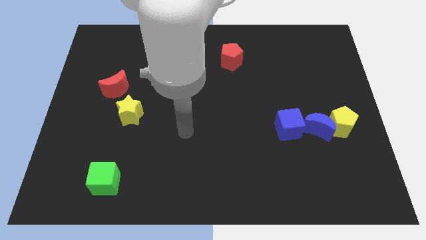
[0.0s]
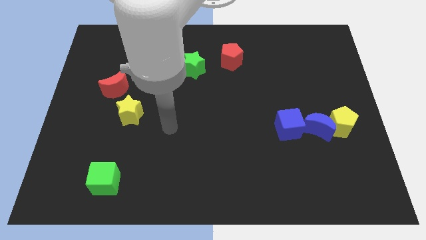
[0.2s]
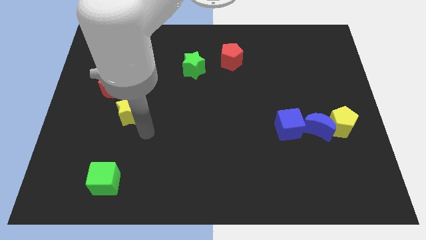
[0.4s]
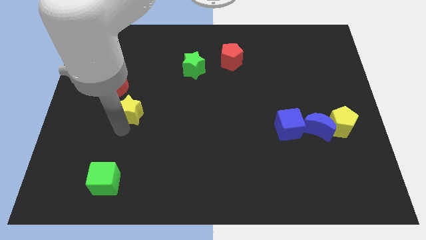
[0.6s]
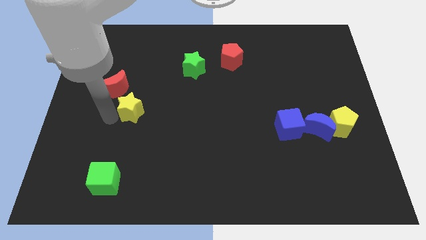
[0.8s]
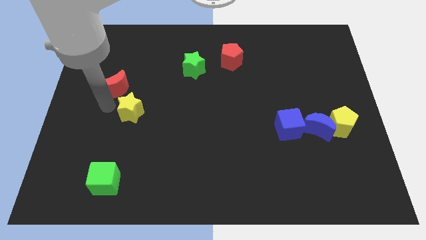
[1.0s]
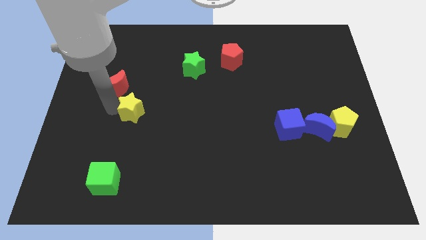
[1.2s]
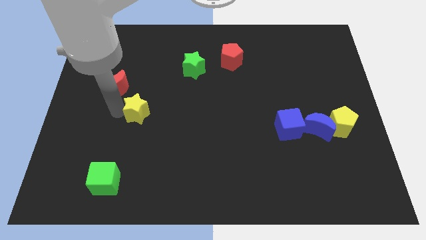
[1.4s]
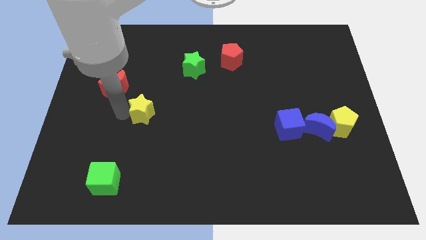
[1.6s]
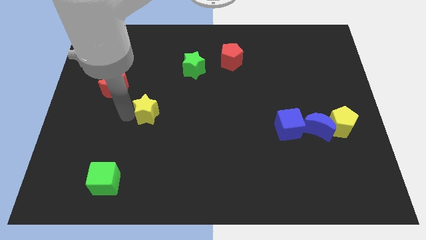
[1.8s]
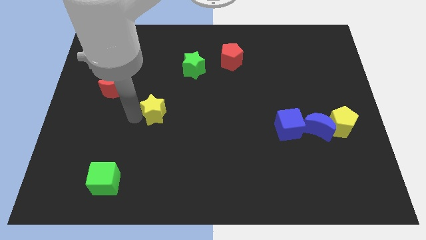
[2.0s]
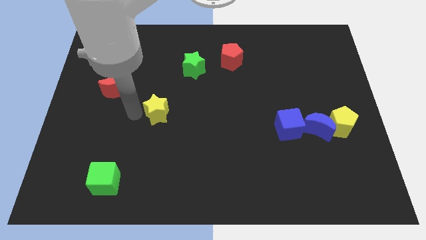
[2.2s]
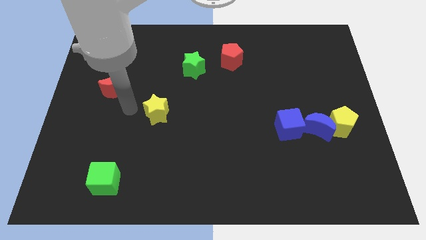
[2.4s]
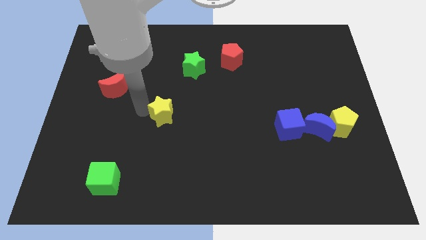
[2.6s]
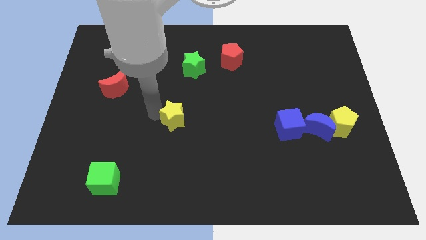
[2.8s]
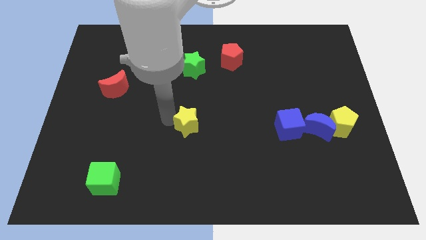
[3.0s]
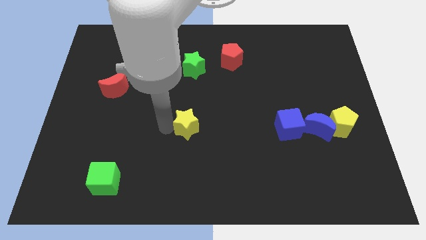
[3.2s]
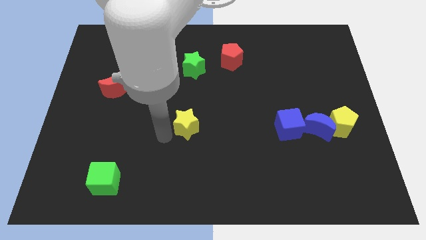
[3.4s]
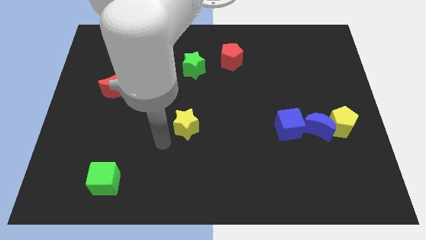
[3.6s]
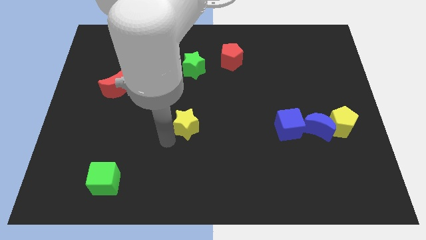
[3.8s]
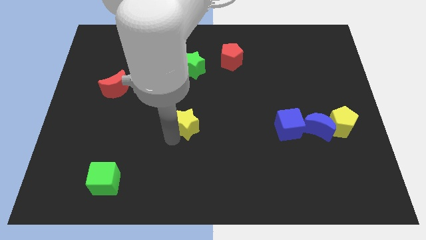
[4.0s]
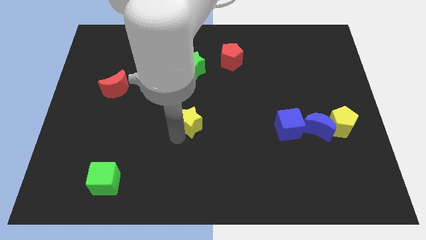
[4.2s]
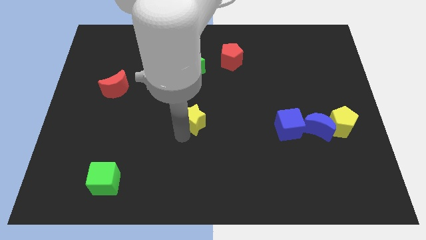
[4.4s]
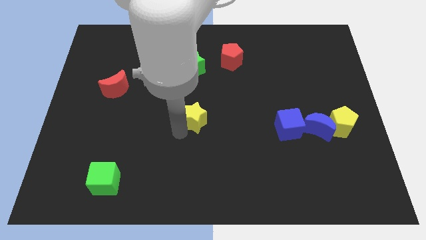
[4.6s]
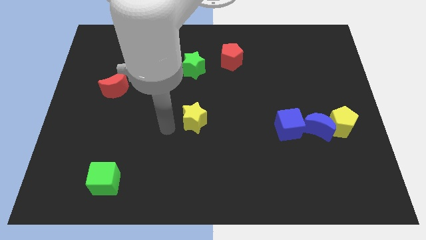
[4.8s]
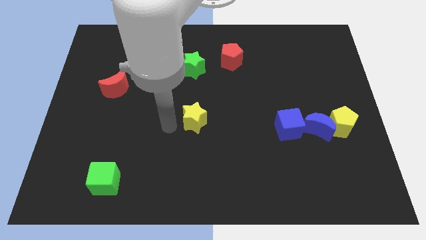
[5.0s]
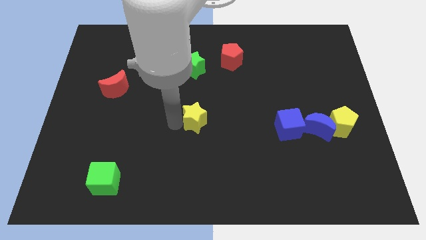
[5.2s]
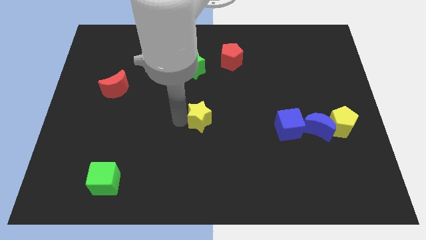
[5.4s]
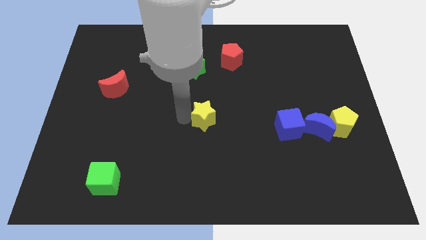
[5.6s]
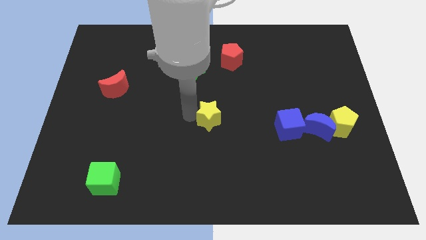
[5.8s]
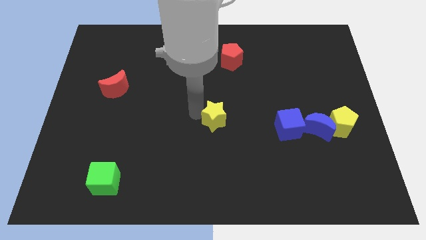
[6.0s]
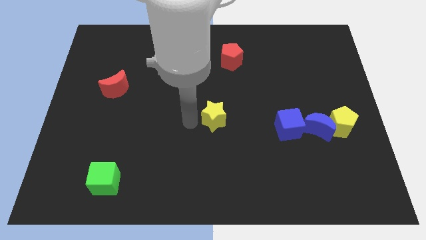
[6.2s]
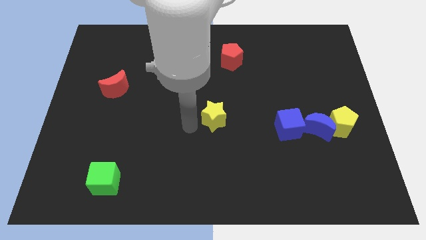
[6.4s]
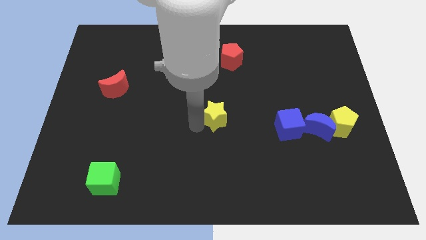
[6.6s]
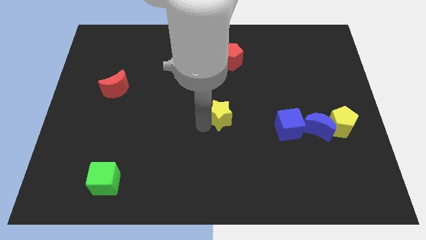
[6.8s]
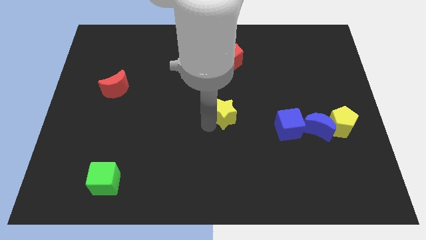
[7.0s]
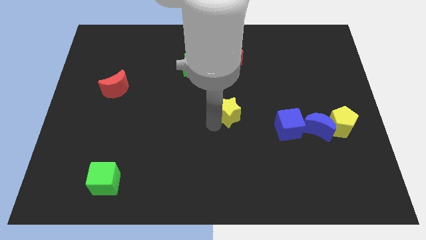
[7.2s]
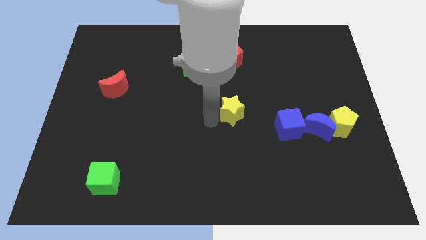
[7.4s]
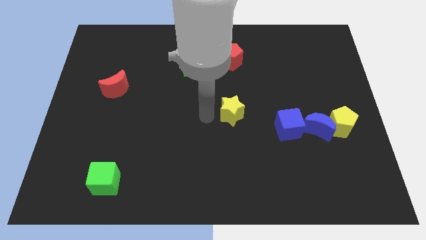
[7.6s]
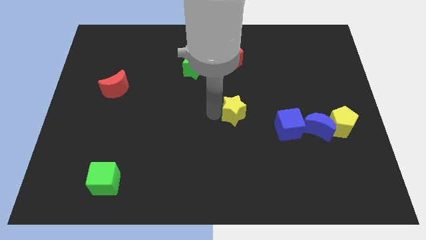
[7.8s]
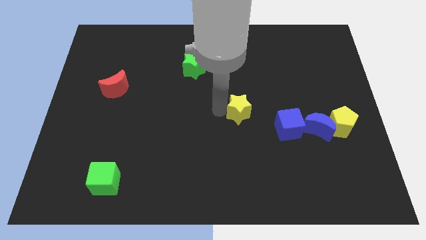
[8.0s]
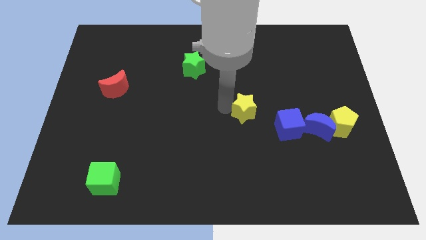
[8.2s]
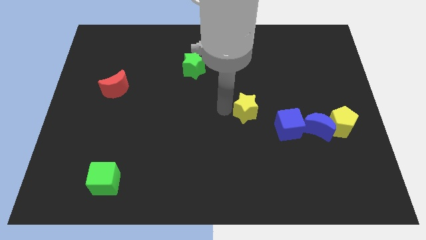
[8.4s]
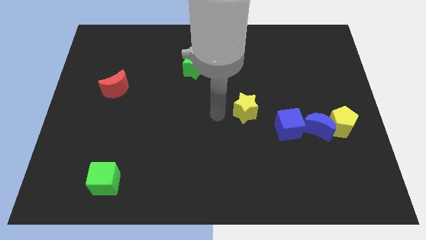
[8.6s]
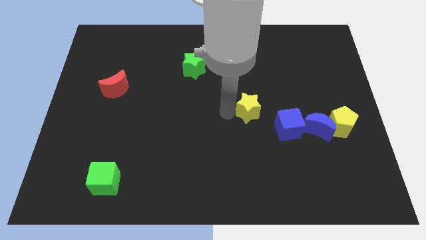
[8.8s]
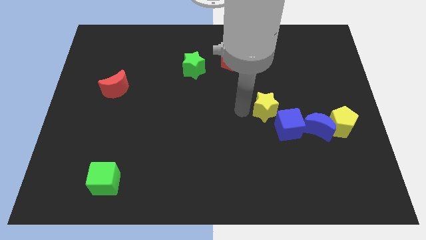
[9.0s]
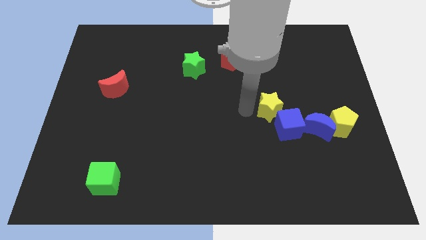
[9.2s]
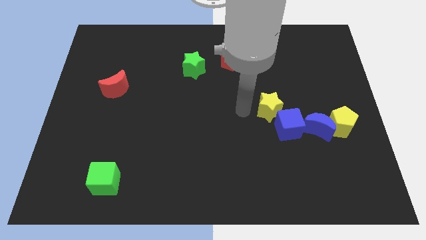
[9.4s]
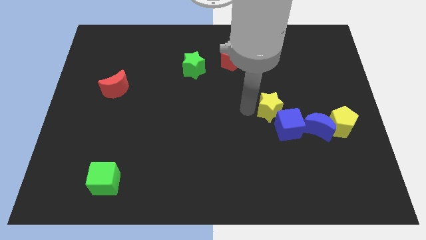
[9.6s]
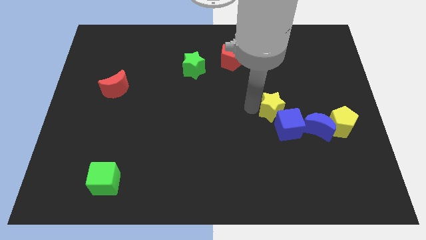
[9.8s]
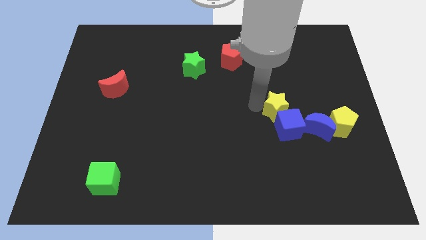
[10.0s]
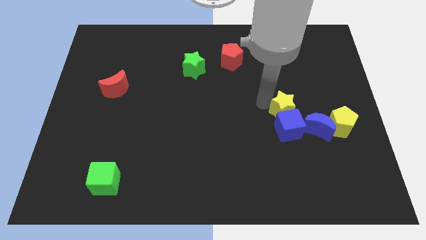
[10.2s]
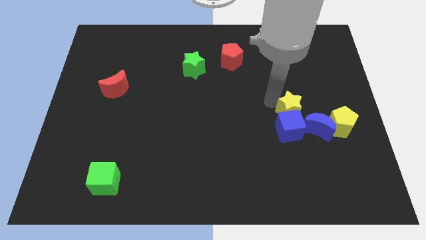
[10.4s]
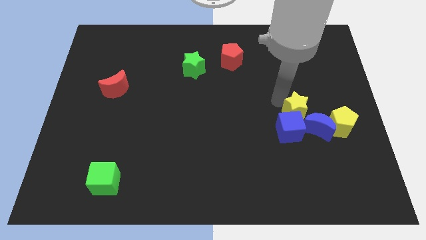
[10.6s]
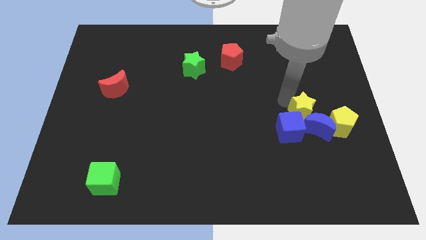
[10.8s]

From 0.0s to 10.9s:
put the yellow star to the blue moon

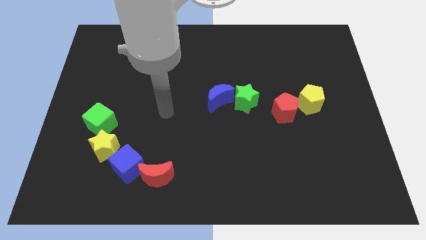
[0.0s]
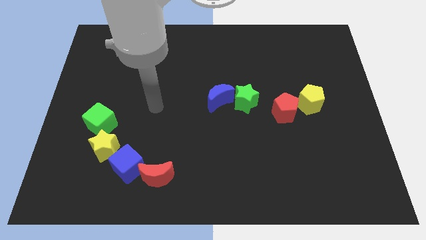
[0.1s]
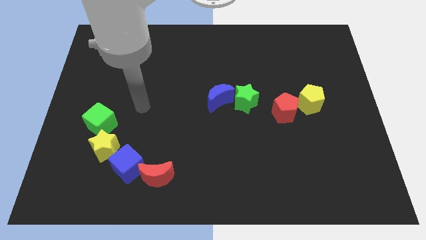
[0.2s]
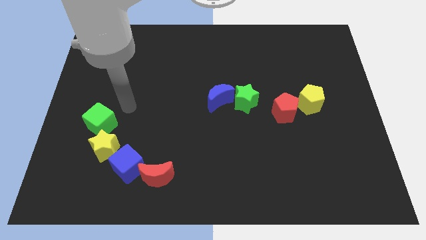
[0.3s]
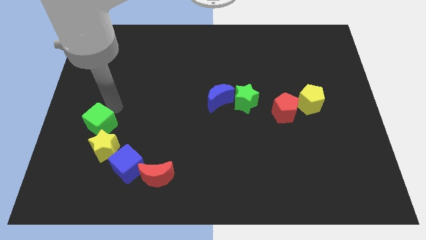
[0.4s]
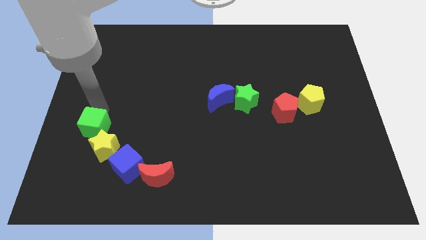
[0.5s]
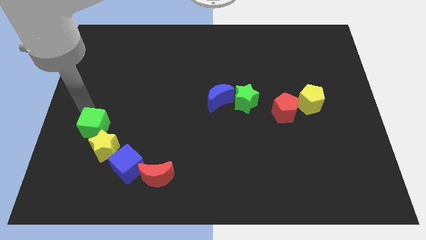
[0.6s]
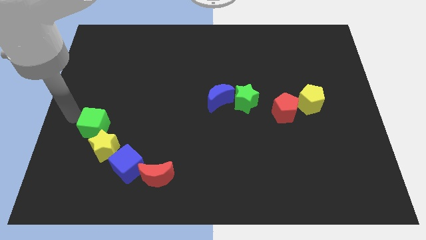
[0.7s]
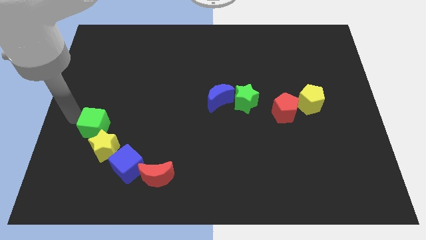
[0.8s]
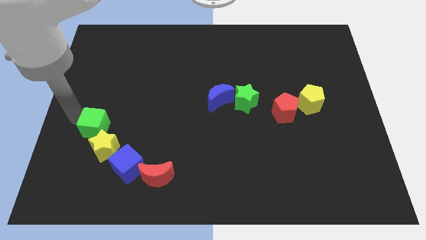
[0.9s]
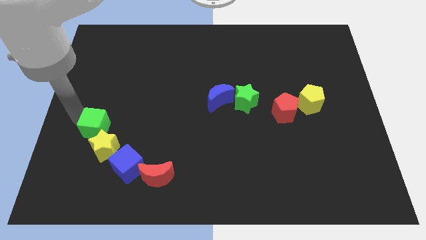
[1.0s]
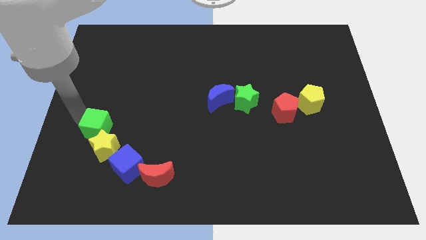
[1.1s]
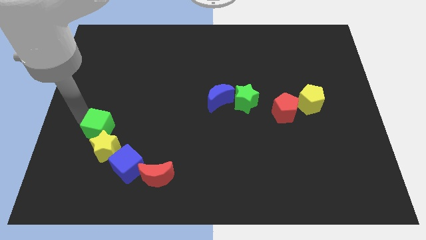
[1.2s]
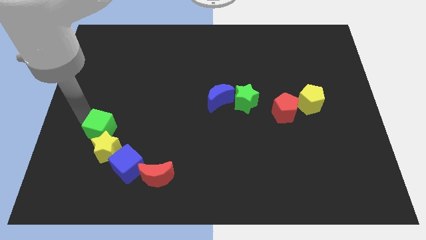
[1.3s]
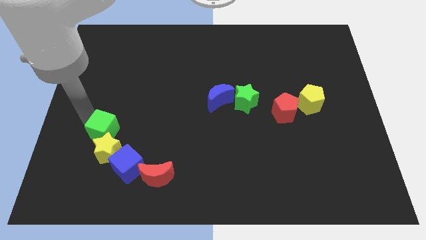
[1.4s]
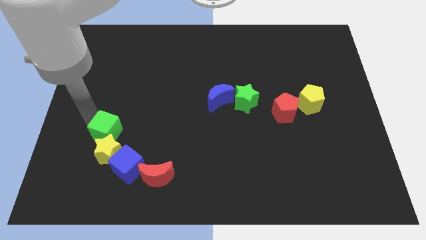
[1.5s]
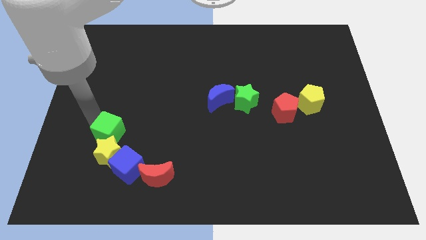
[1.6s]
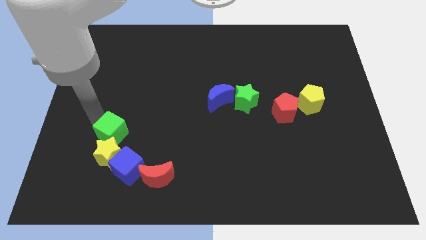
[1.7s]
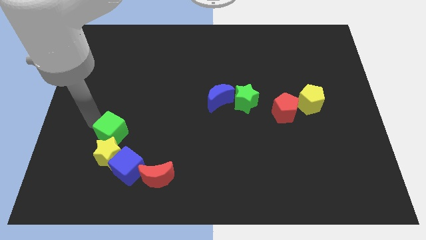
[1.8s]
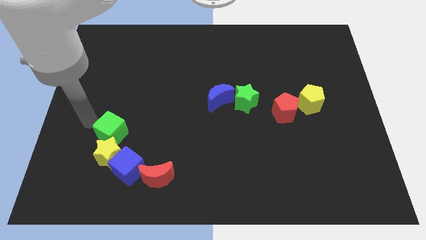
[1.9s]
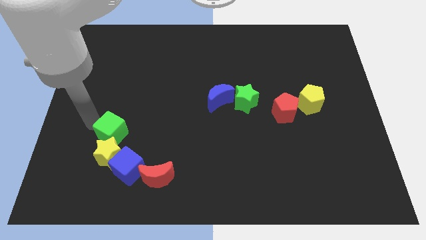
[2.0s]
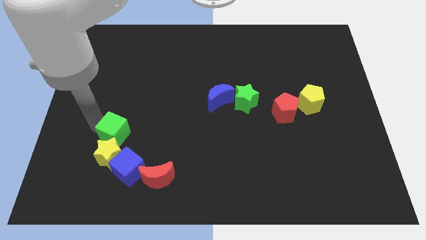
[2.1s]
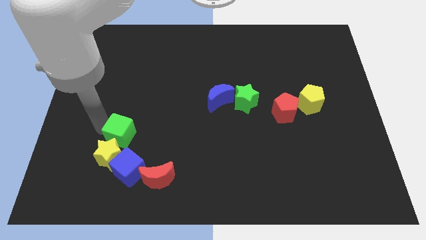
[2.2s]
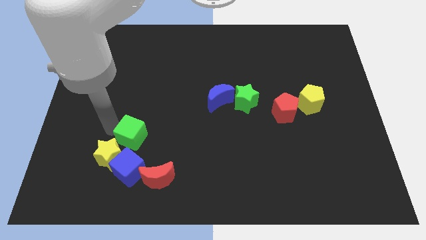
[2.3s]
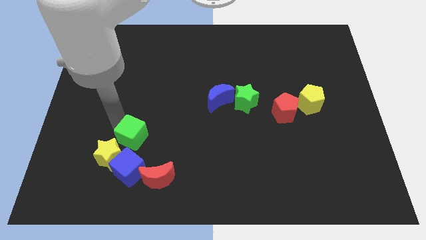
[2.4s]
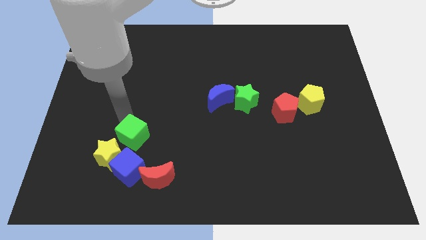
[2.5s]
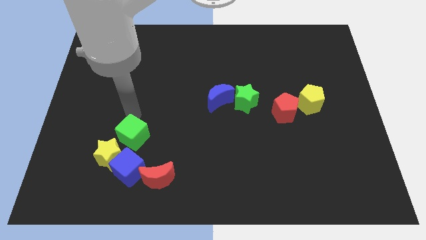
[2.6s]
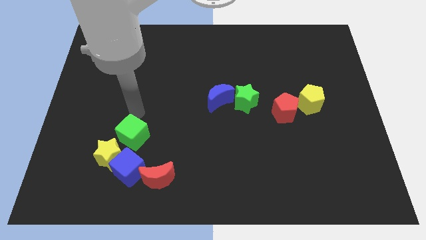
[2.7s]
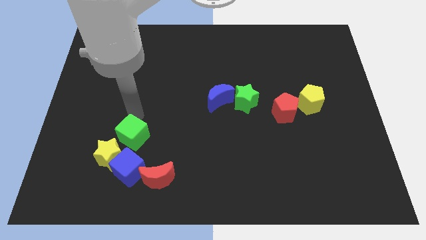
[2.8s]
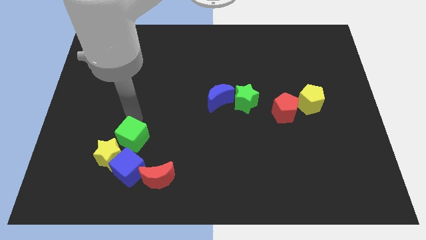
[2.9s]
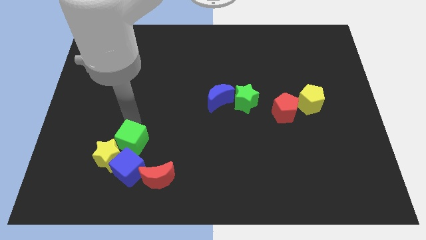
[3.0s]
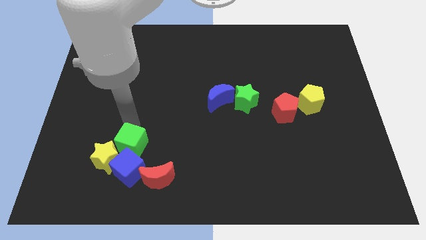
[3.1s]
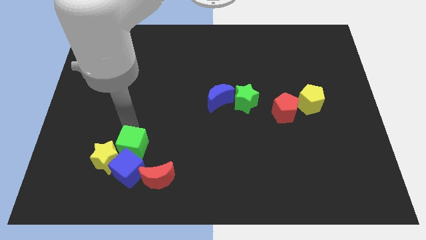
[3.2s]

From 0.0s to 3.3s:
put the green cube towards the blue cube
